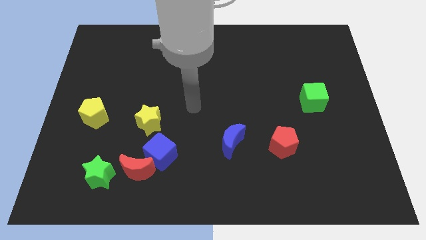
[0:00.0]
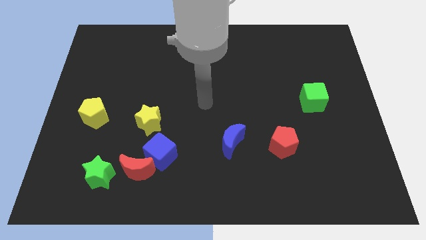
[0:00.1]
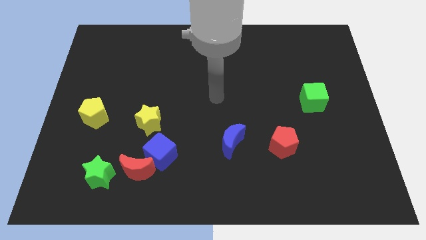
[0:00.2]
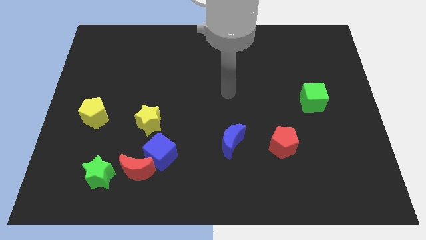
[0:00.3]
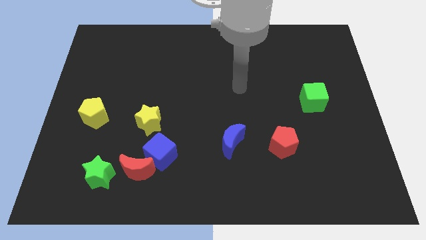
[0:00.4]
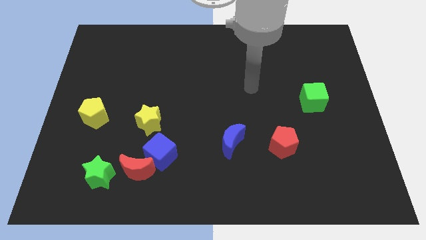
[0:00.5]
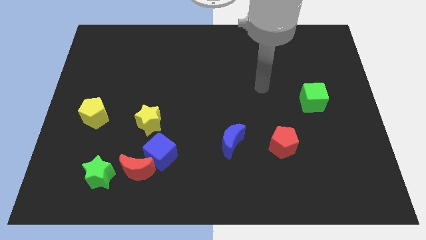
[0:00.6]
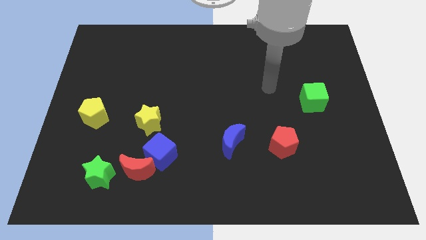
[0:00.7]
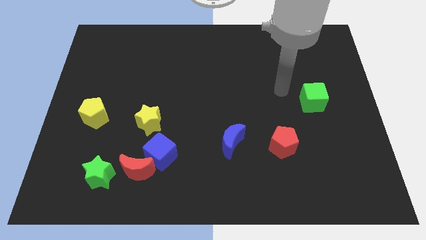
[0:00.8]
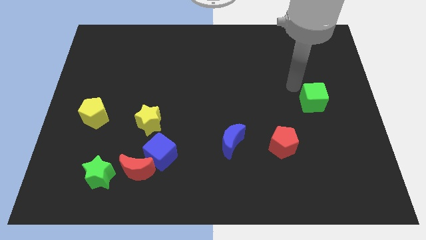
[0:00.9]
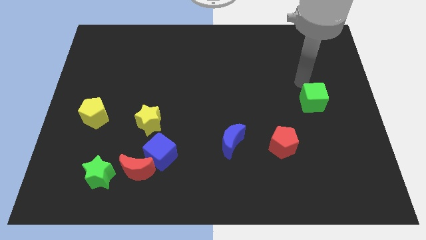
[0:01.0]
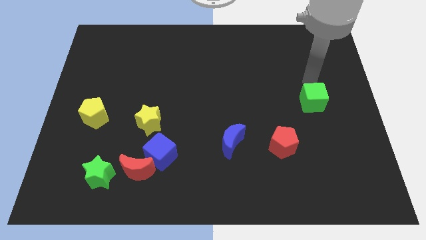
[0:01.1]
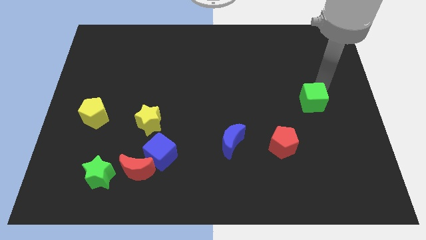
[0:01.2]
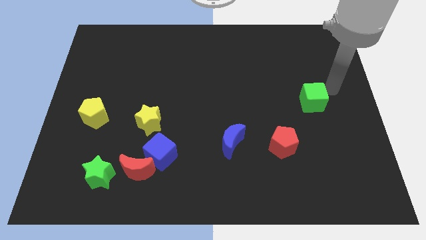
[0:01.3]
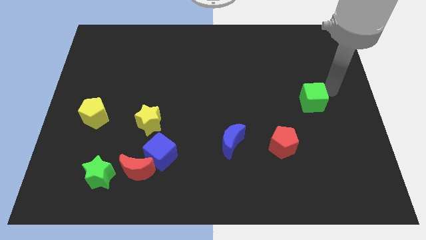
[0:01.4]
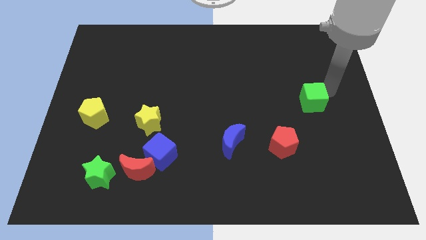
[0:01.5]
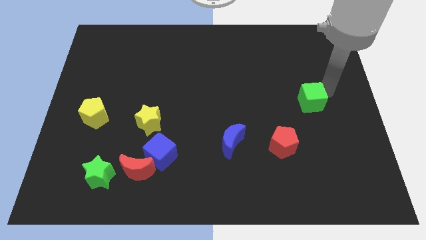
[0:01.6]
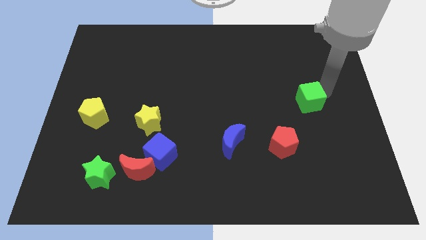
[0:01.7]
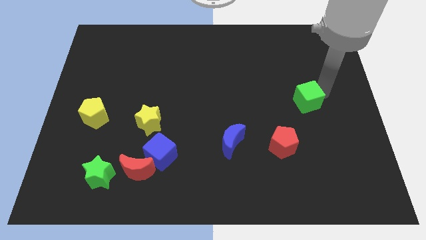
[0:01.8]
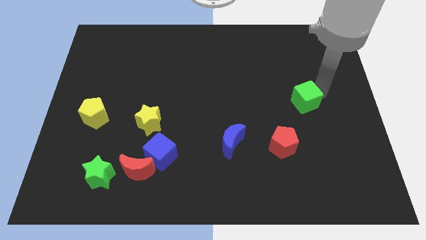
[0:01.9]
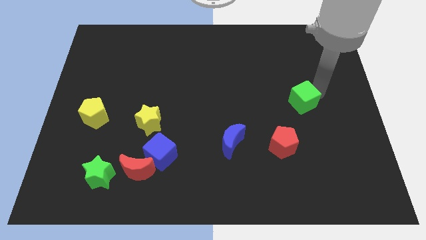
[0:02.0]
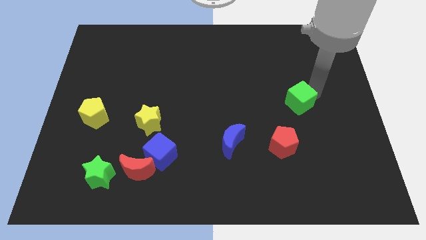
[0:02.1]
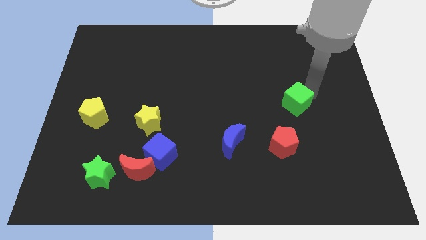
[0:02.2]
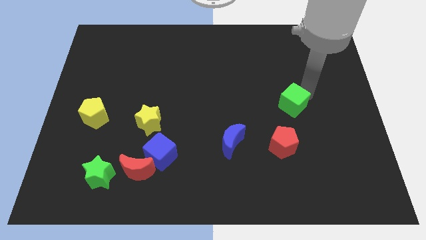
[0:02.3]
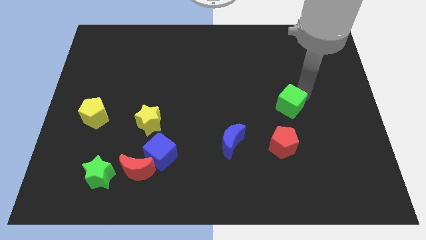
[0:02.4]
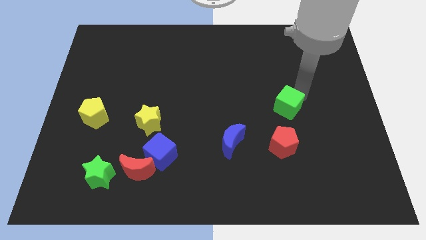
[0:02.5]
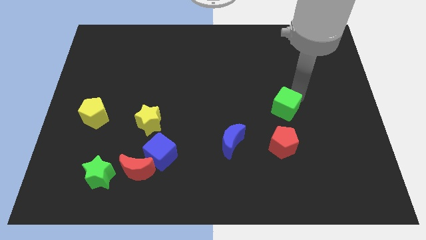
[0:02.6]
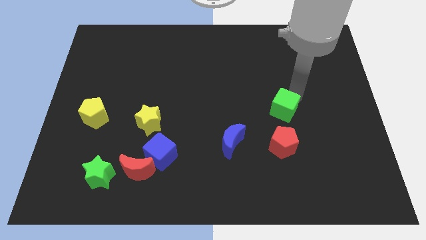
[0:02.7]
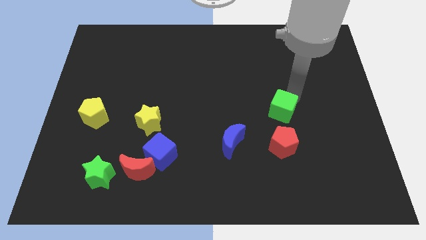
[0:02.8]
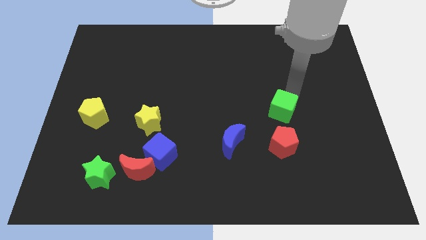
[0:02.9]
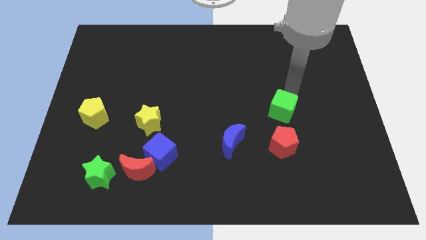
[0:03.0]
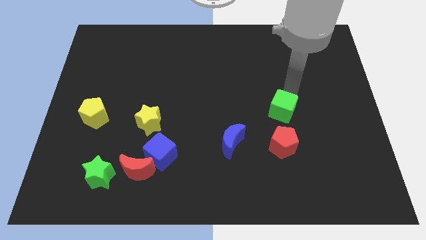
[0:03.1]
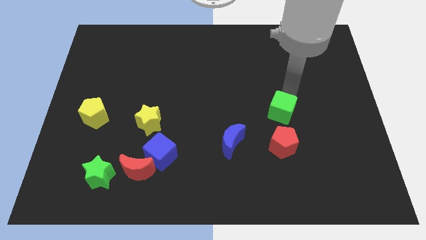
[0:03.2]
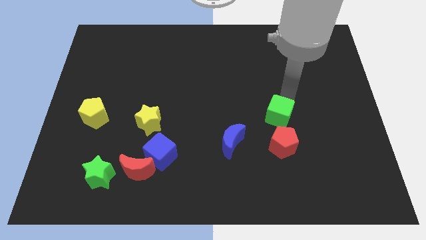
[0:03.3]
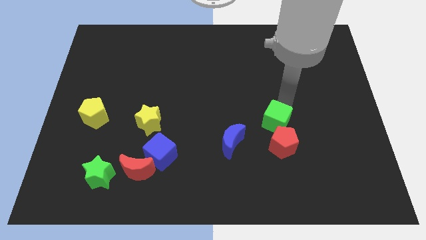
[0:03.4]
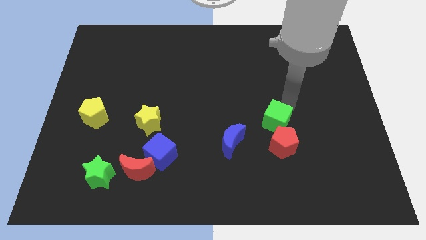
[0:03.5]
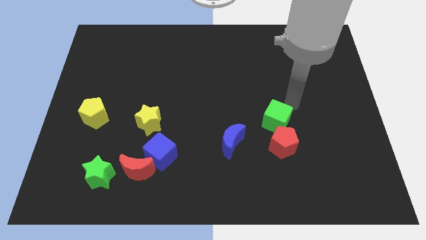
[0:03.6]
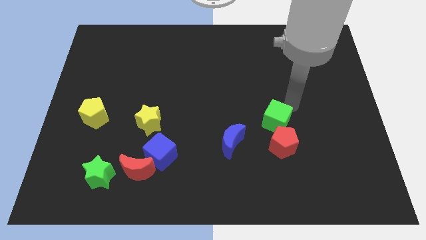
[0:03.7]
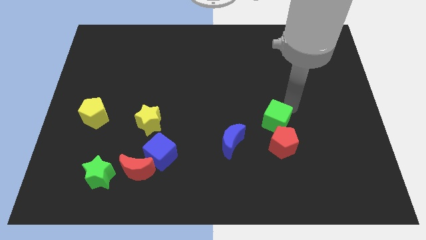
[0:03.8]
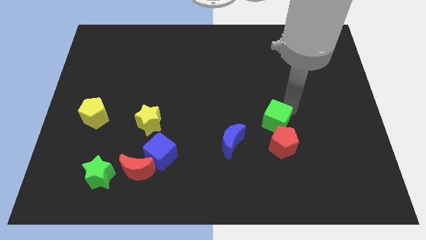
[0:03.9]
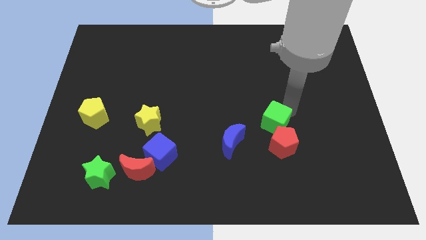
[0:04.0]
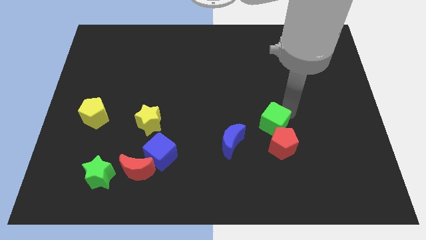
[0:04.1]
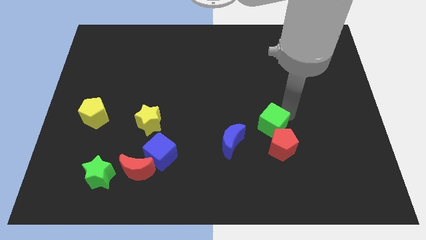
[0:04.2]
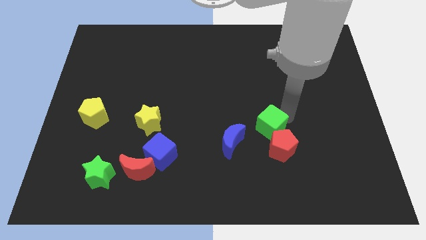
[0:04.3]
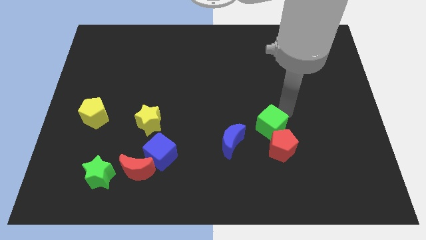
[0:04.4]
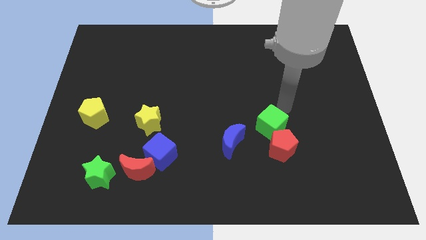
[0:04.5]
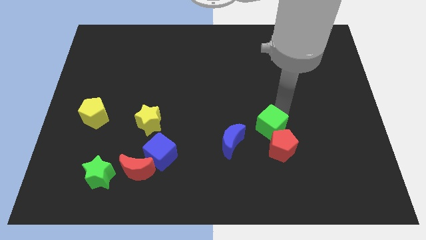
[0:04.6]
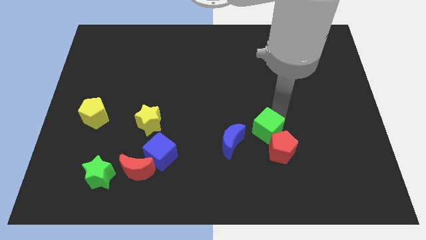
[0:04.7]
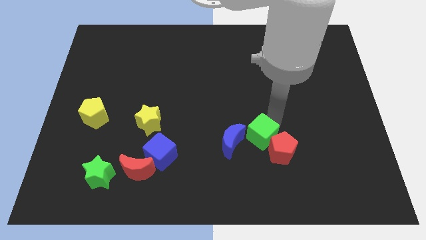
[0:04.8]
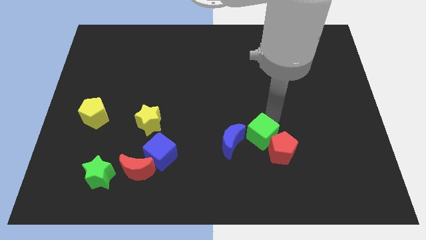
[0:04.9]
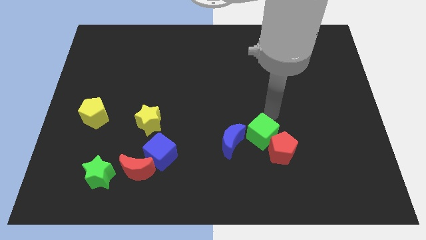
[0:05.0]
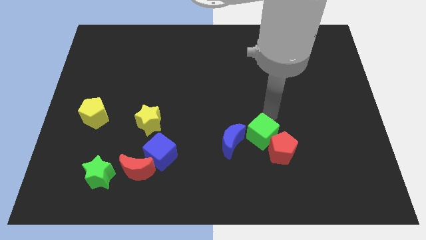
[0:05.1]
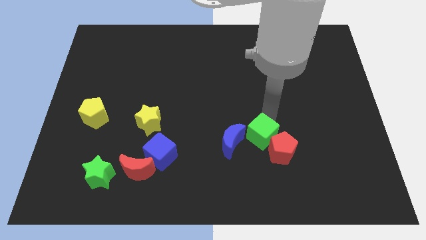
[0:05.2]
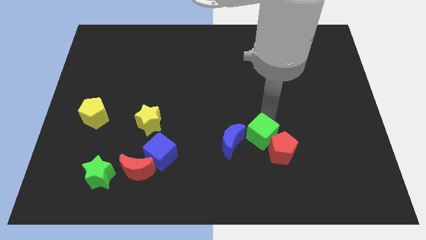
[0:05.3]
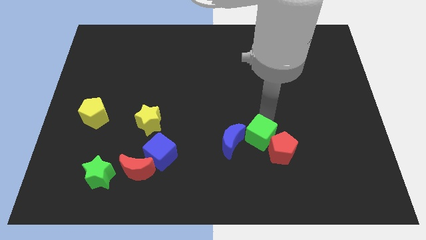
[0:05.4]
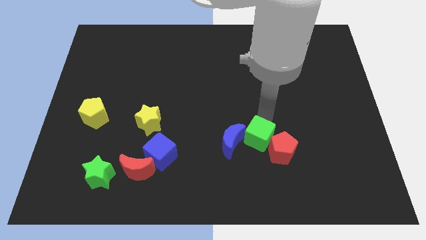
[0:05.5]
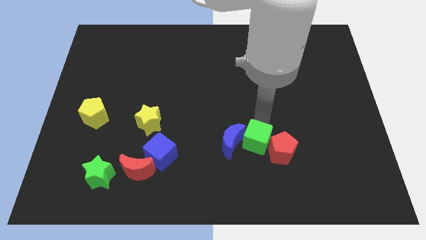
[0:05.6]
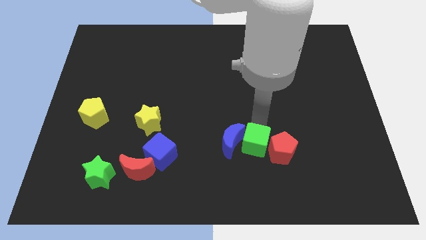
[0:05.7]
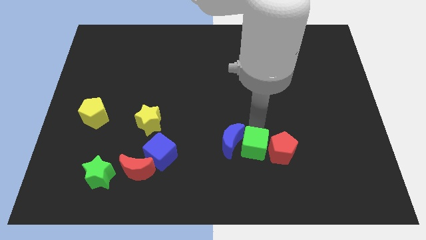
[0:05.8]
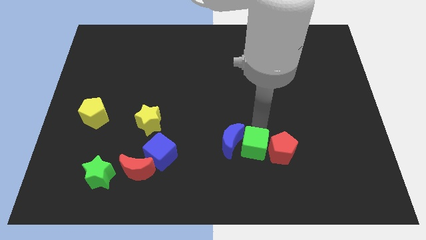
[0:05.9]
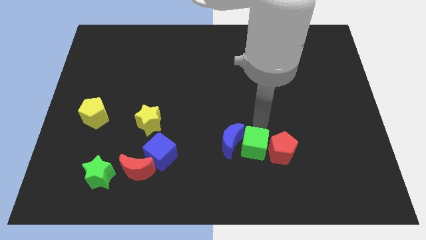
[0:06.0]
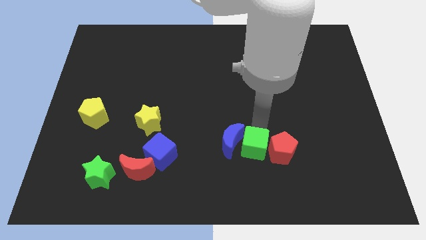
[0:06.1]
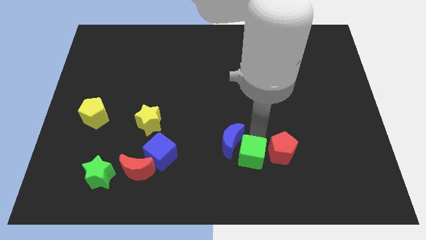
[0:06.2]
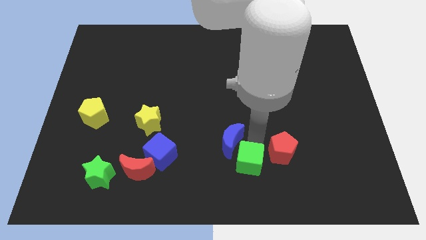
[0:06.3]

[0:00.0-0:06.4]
push the green cube to the bottom side

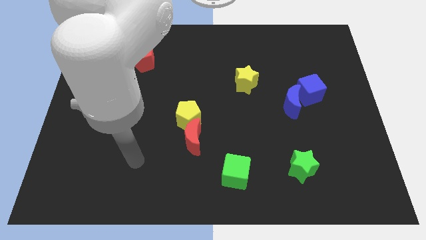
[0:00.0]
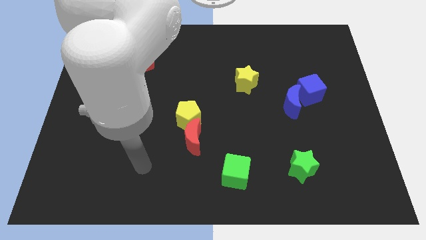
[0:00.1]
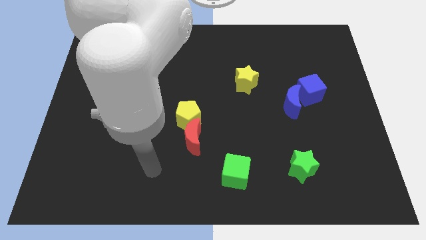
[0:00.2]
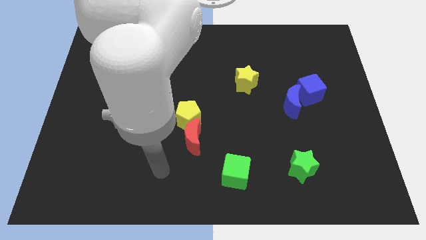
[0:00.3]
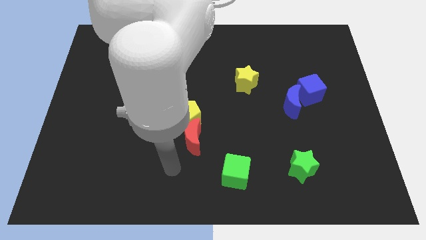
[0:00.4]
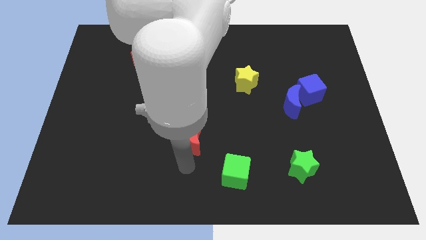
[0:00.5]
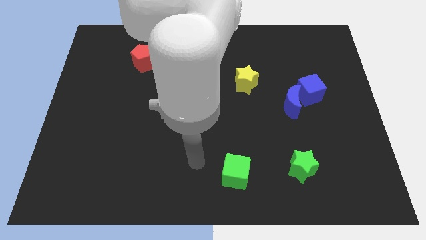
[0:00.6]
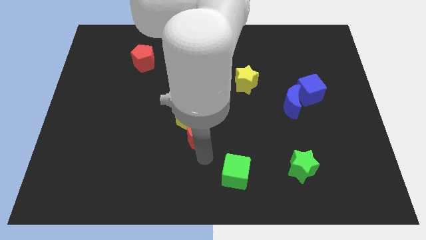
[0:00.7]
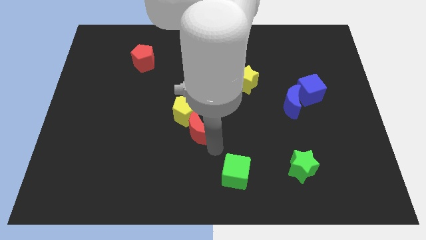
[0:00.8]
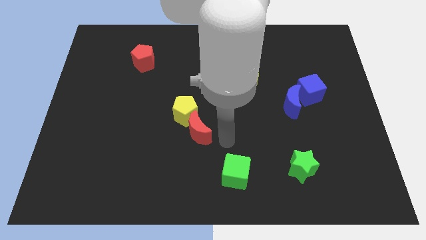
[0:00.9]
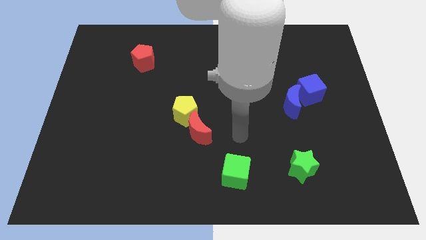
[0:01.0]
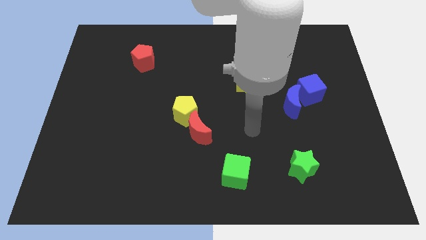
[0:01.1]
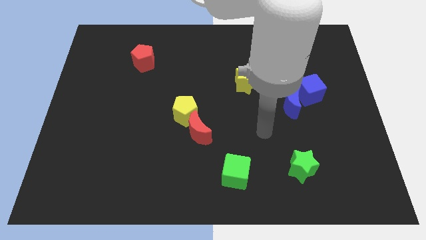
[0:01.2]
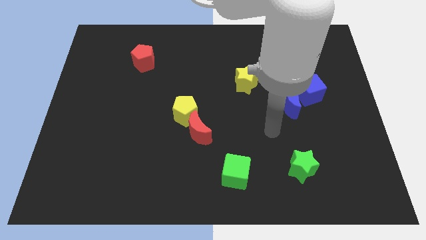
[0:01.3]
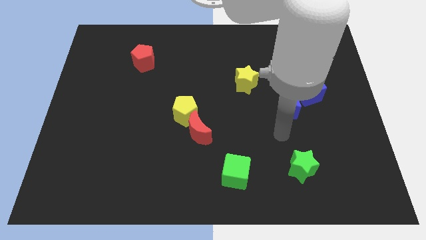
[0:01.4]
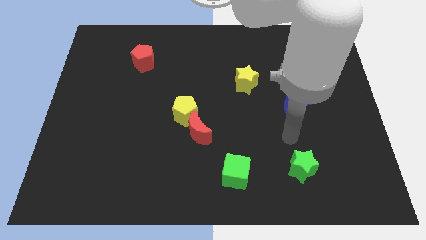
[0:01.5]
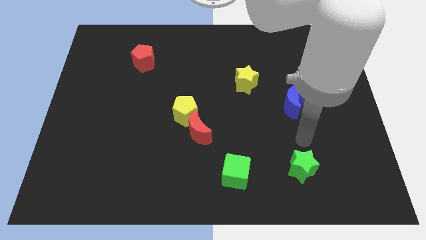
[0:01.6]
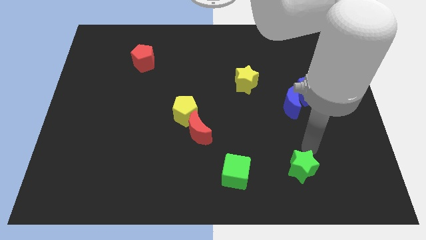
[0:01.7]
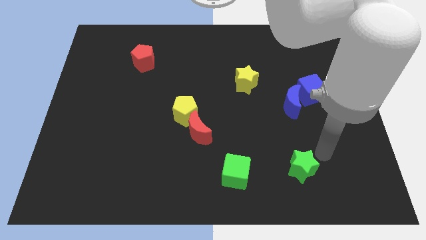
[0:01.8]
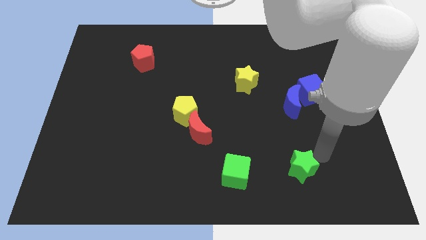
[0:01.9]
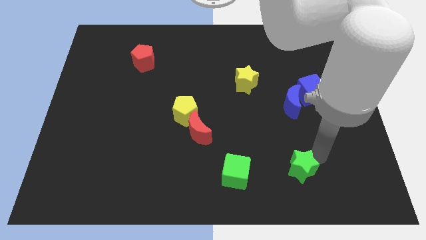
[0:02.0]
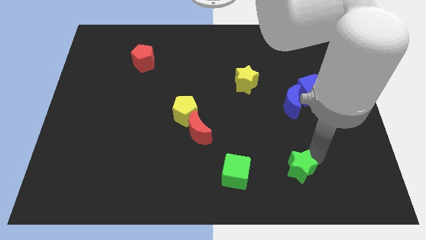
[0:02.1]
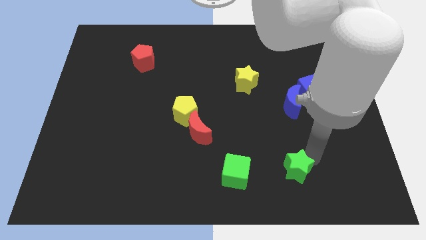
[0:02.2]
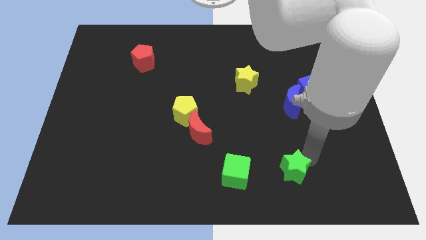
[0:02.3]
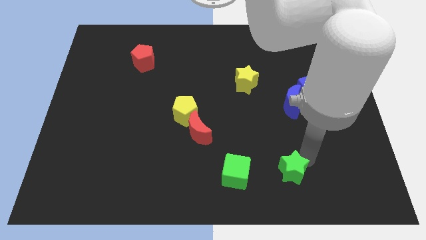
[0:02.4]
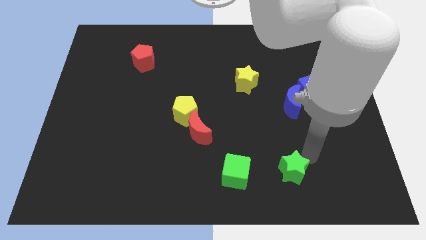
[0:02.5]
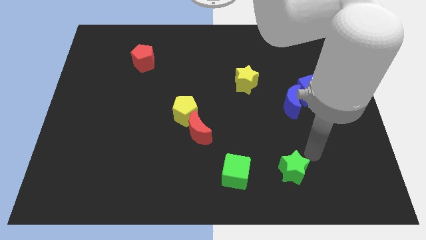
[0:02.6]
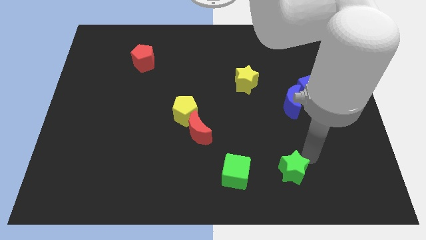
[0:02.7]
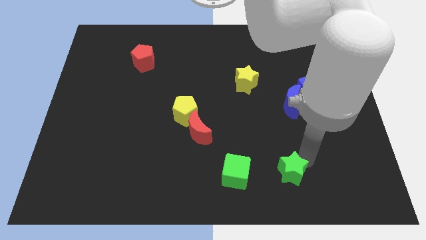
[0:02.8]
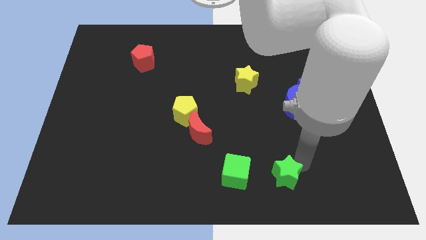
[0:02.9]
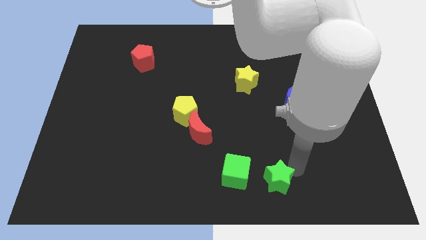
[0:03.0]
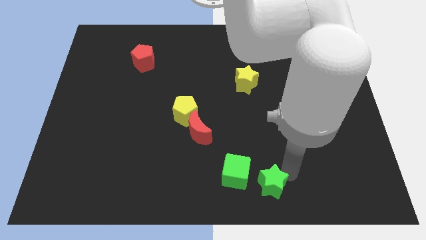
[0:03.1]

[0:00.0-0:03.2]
push the green star to the bottom side
